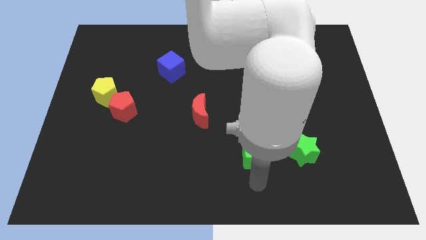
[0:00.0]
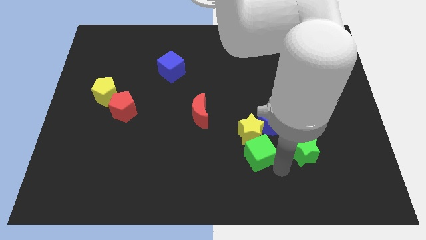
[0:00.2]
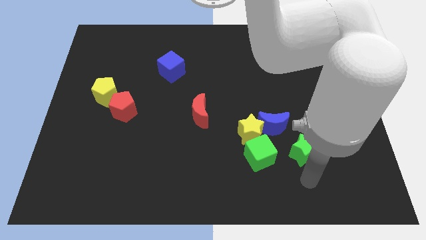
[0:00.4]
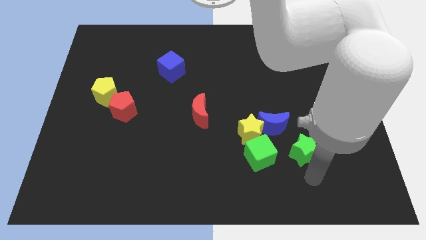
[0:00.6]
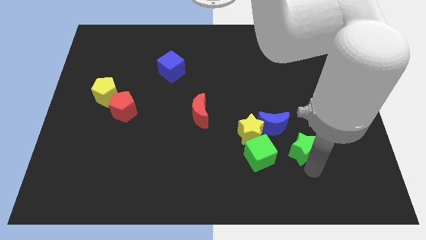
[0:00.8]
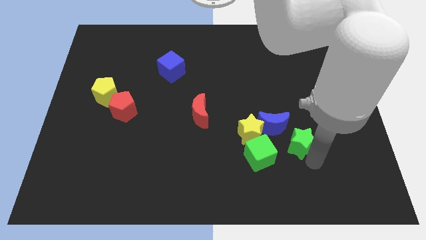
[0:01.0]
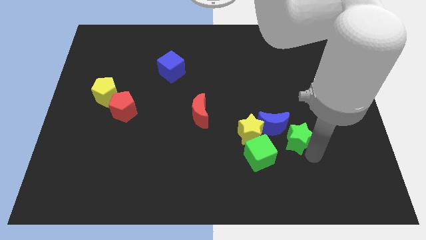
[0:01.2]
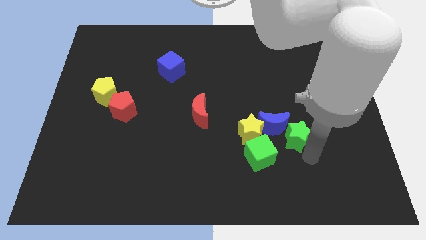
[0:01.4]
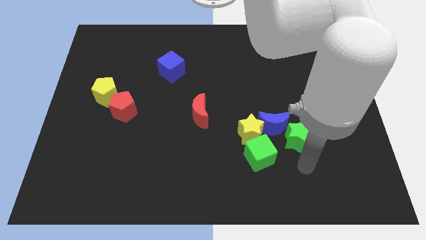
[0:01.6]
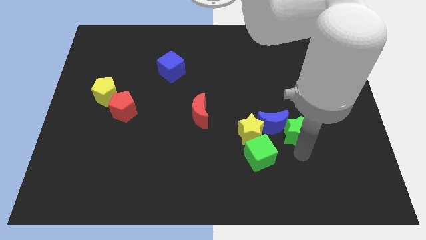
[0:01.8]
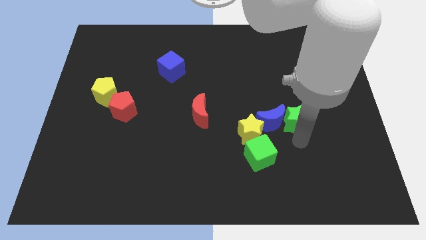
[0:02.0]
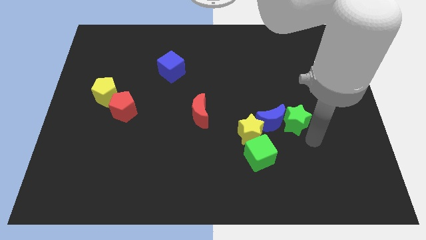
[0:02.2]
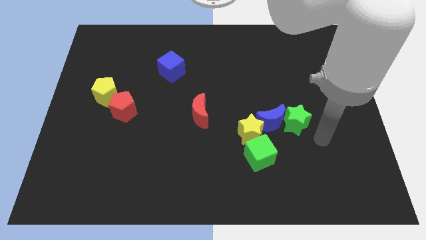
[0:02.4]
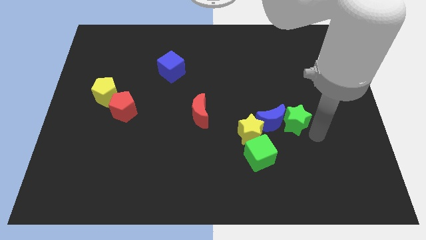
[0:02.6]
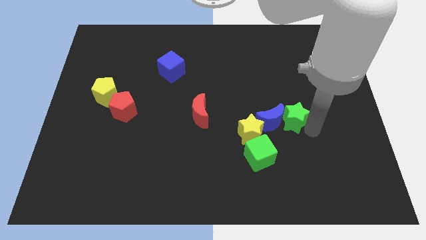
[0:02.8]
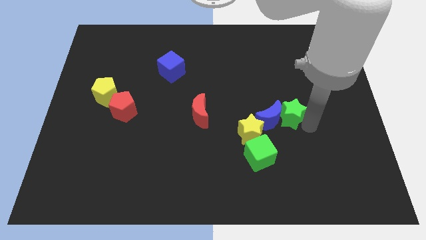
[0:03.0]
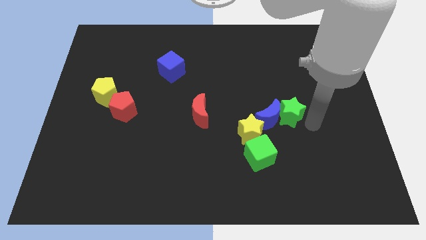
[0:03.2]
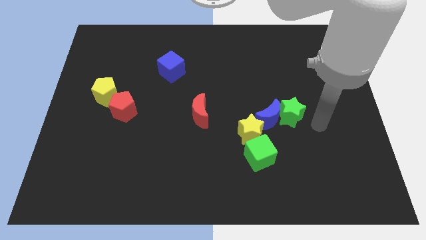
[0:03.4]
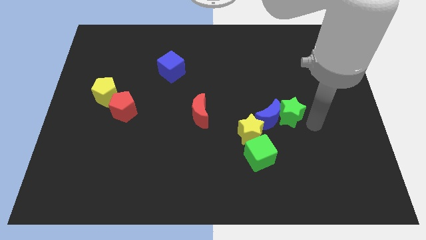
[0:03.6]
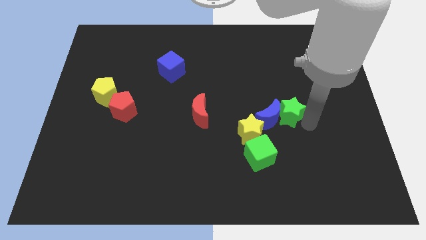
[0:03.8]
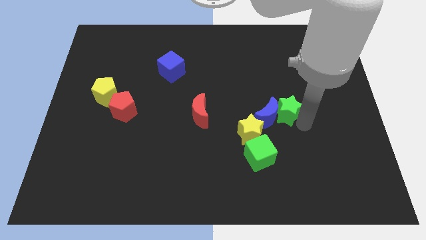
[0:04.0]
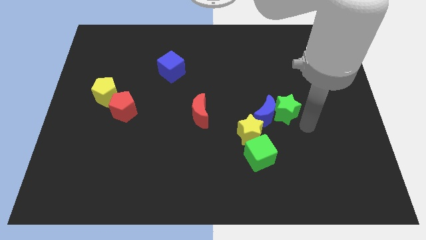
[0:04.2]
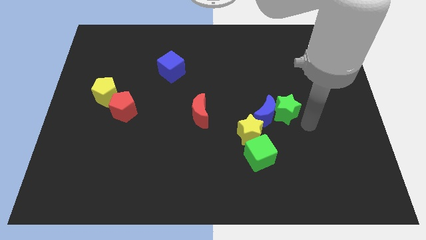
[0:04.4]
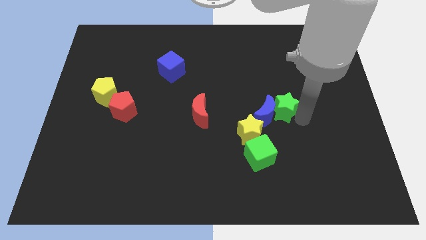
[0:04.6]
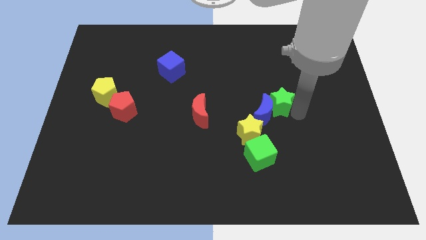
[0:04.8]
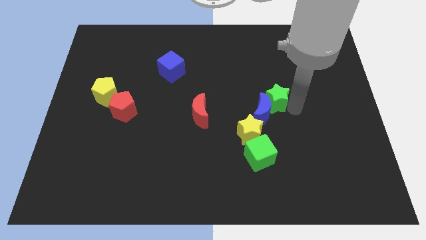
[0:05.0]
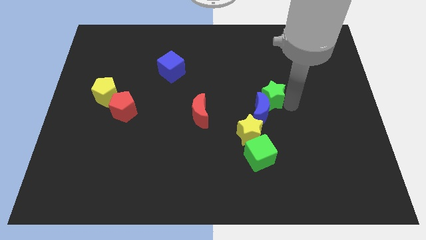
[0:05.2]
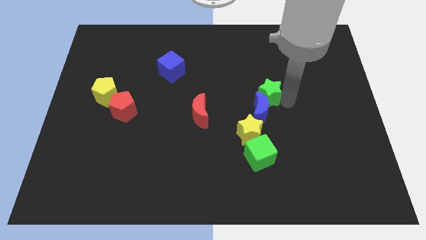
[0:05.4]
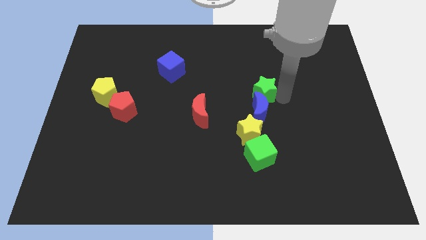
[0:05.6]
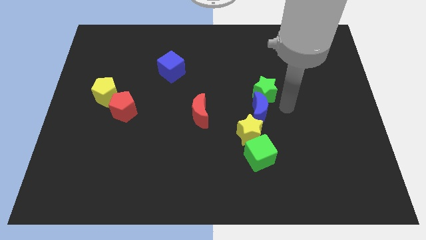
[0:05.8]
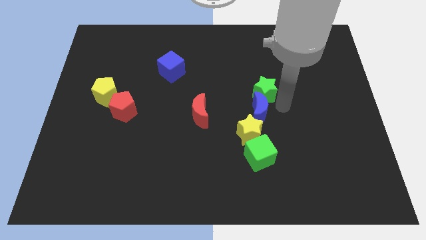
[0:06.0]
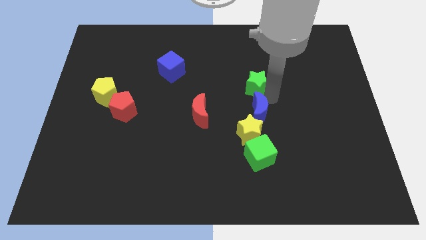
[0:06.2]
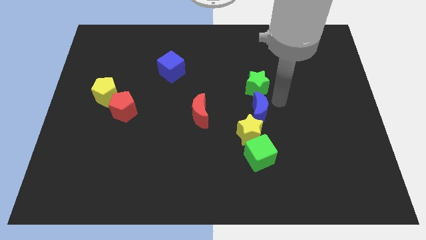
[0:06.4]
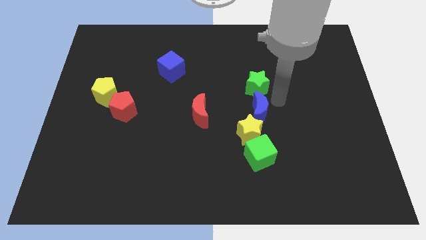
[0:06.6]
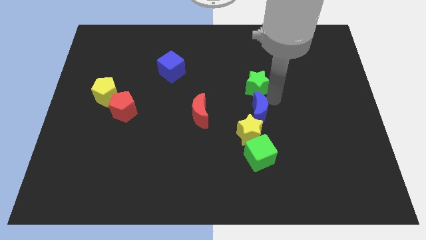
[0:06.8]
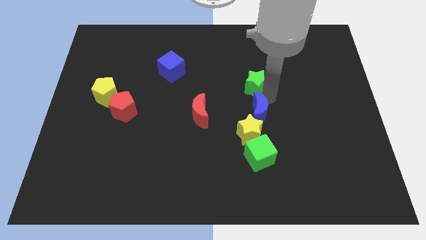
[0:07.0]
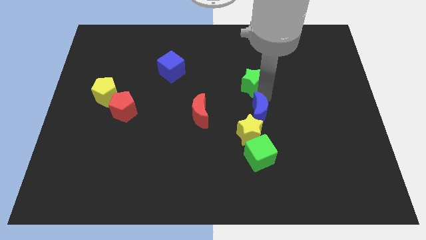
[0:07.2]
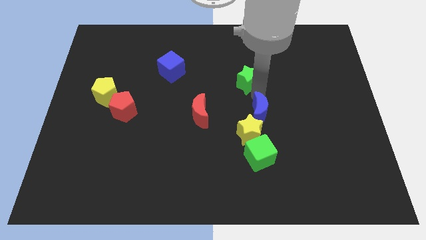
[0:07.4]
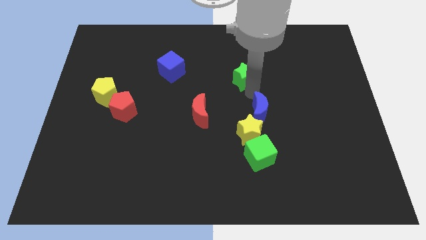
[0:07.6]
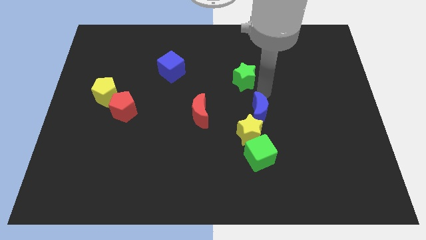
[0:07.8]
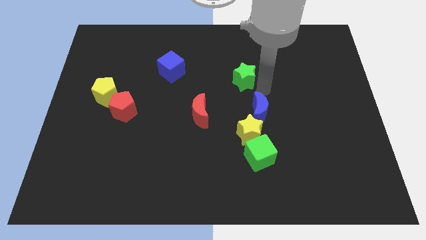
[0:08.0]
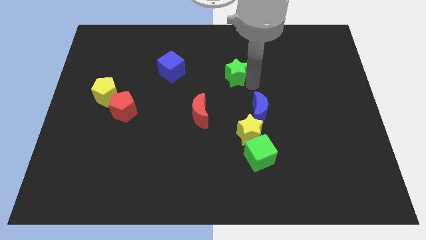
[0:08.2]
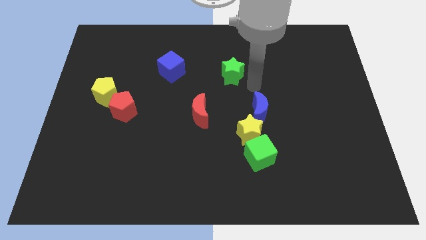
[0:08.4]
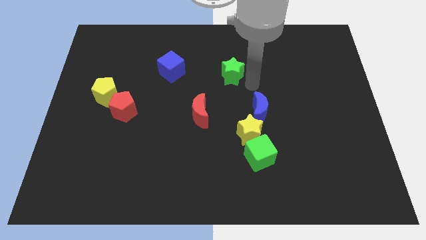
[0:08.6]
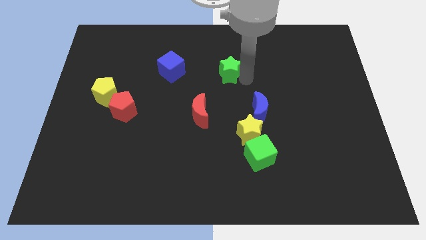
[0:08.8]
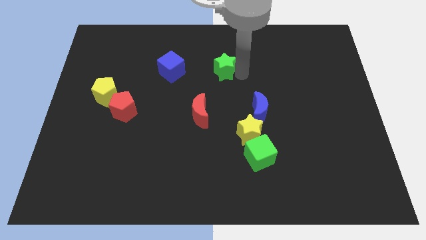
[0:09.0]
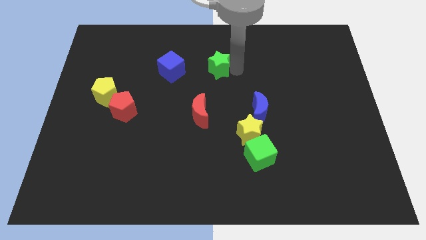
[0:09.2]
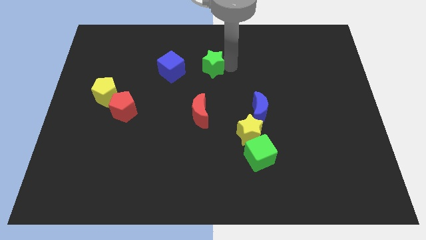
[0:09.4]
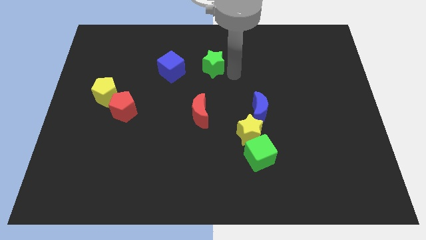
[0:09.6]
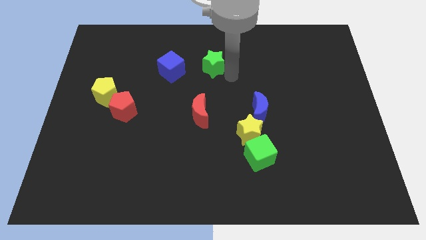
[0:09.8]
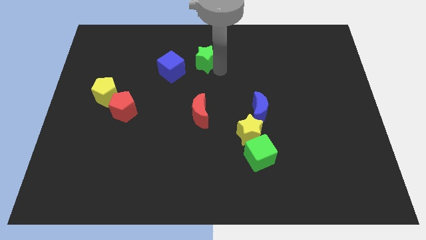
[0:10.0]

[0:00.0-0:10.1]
move the green star to the top right of the blue cube

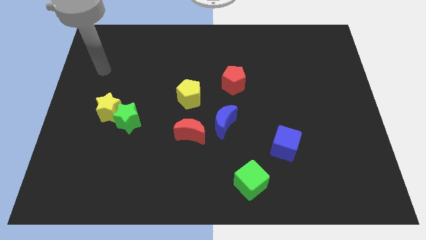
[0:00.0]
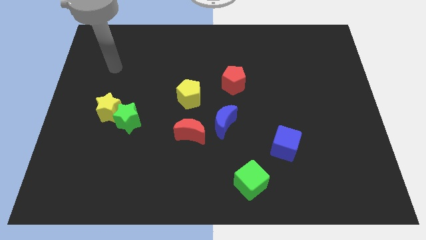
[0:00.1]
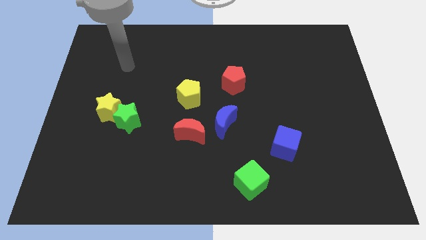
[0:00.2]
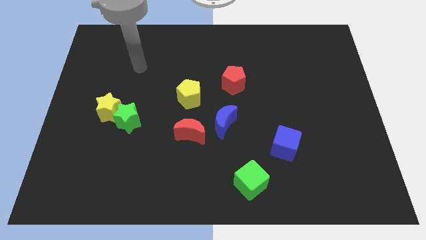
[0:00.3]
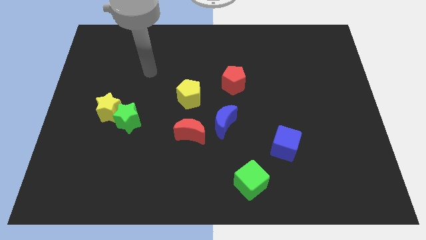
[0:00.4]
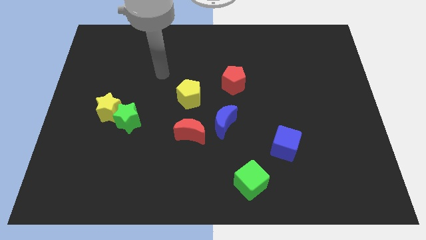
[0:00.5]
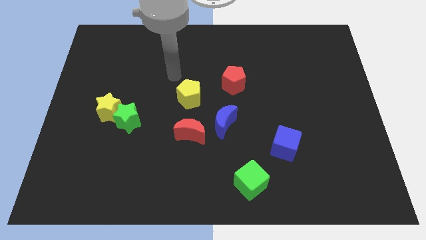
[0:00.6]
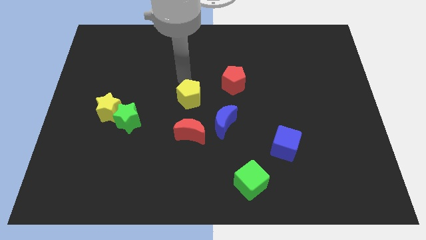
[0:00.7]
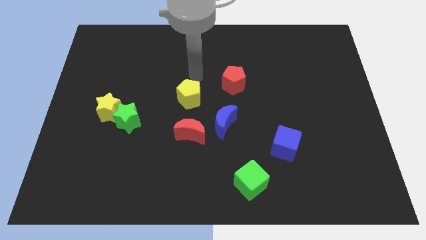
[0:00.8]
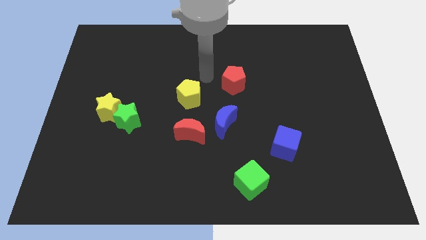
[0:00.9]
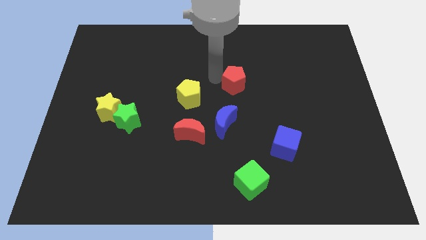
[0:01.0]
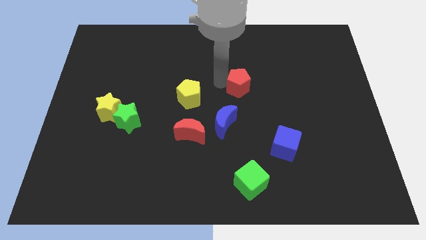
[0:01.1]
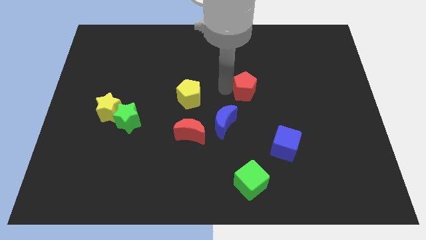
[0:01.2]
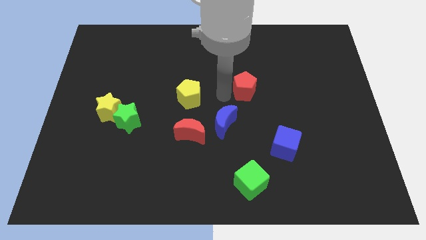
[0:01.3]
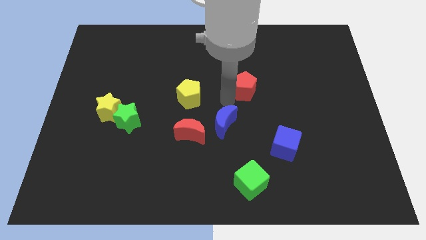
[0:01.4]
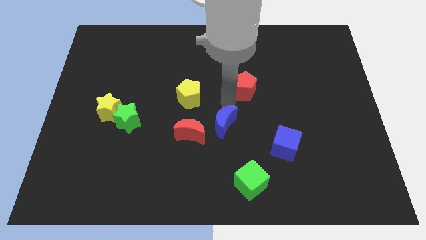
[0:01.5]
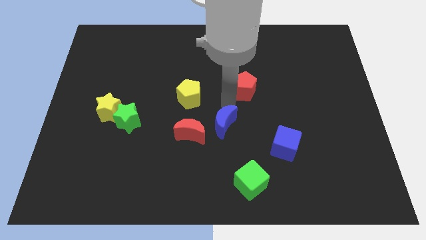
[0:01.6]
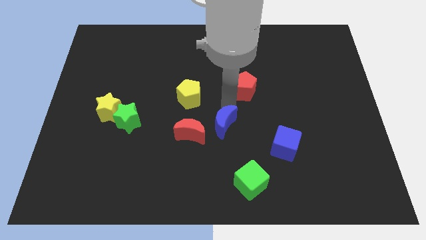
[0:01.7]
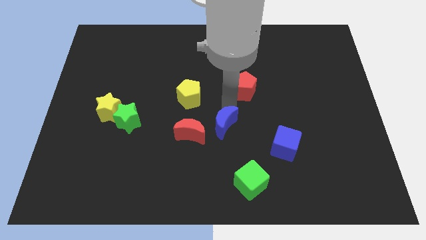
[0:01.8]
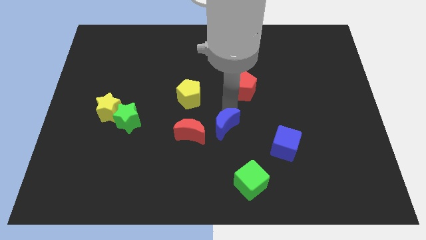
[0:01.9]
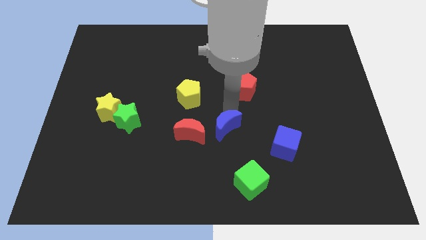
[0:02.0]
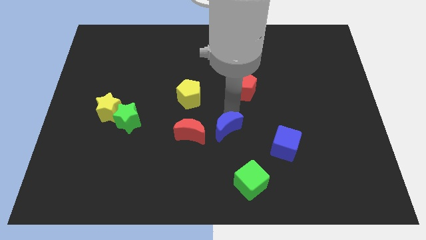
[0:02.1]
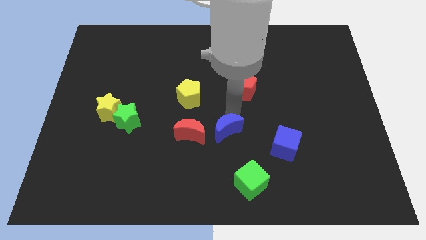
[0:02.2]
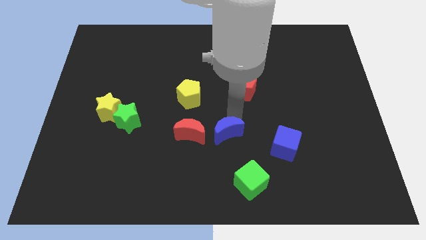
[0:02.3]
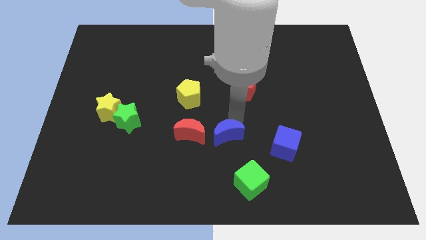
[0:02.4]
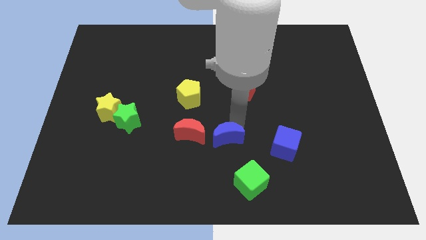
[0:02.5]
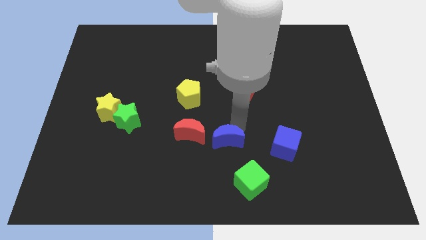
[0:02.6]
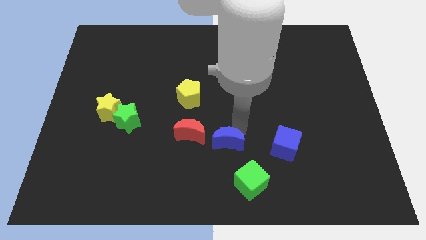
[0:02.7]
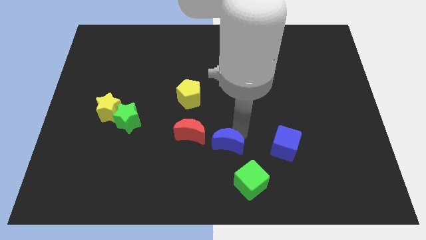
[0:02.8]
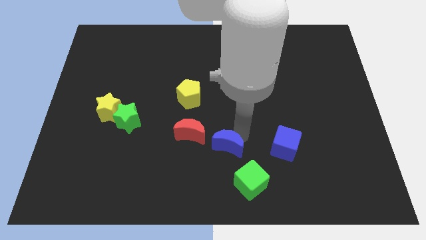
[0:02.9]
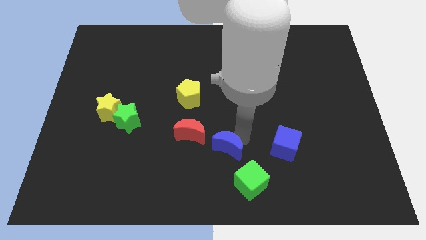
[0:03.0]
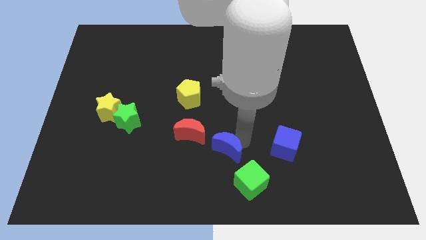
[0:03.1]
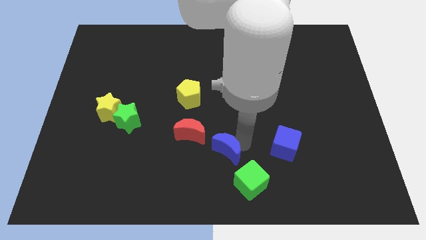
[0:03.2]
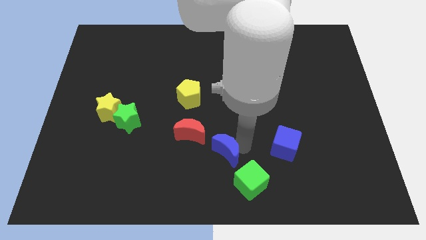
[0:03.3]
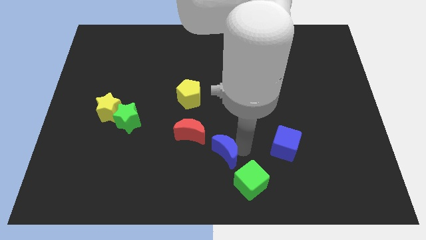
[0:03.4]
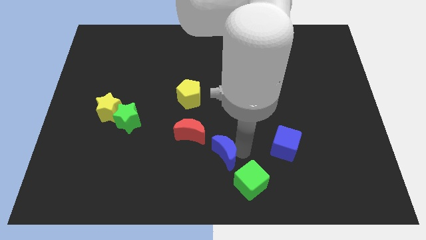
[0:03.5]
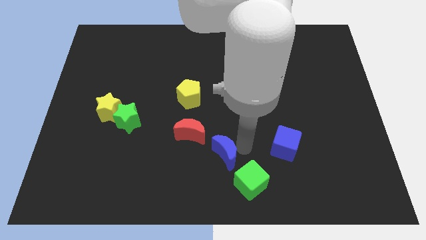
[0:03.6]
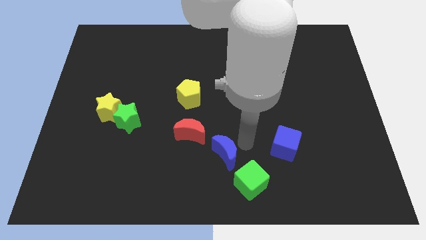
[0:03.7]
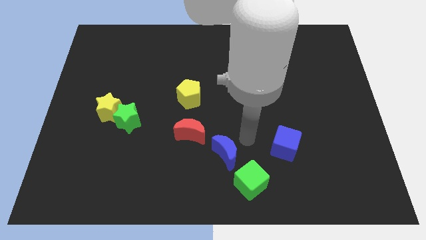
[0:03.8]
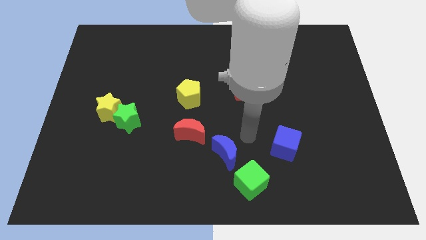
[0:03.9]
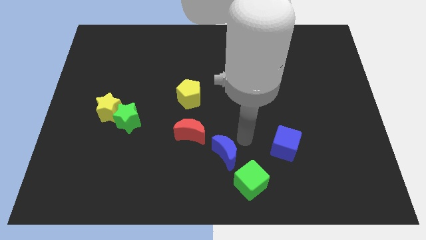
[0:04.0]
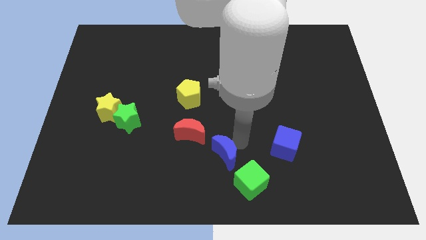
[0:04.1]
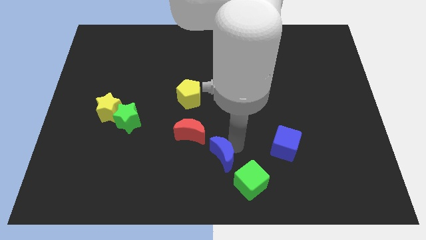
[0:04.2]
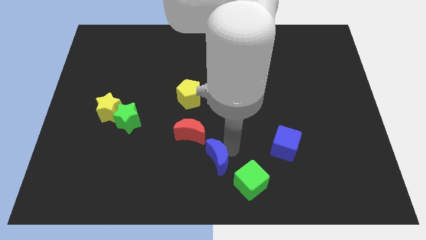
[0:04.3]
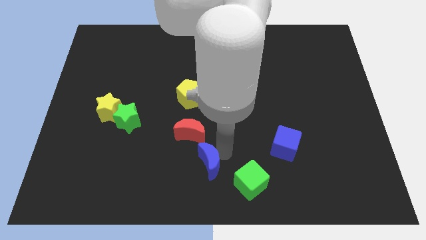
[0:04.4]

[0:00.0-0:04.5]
push the blue moon left of the green cube
